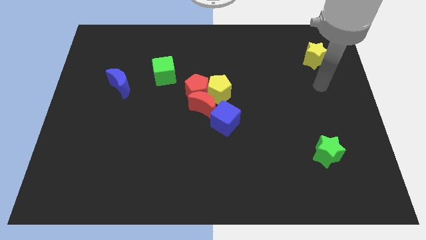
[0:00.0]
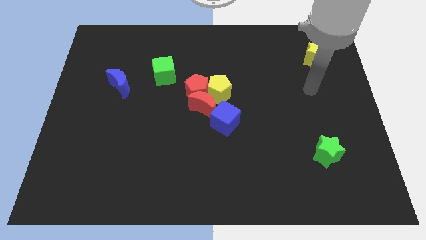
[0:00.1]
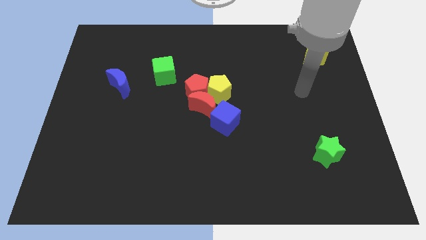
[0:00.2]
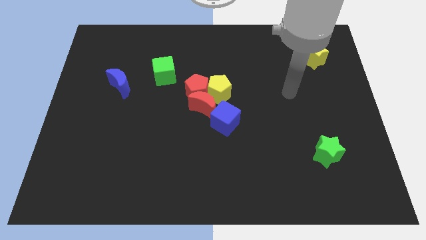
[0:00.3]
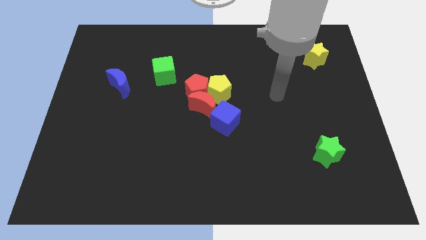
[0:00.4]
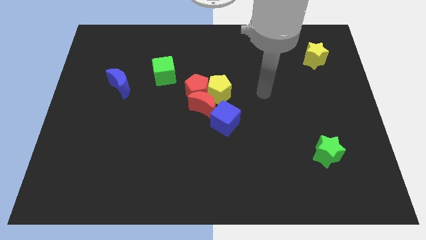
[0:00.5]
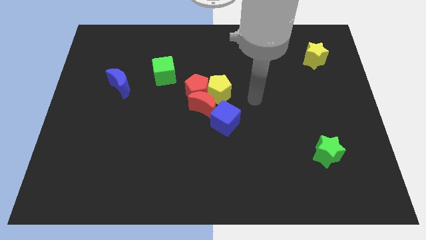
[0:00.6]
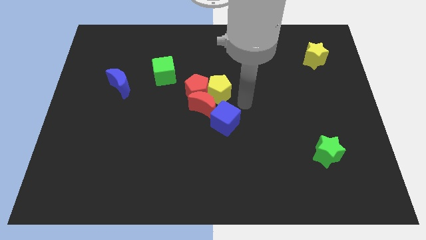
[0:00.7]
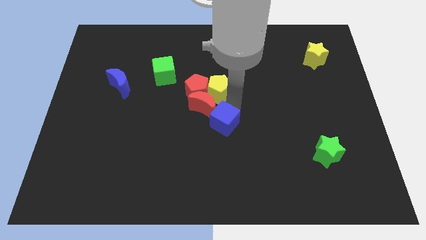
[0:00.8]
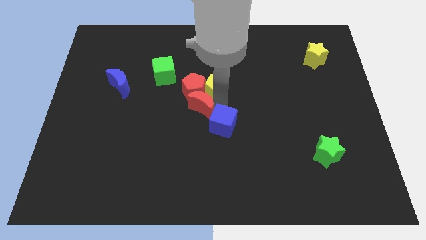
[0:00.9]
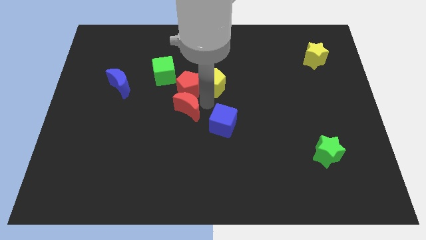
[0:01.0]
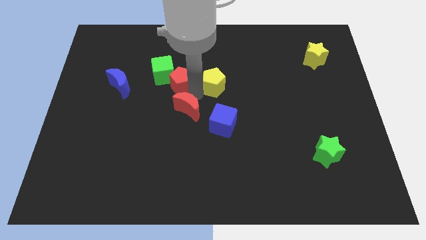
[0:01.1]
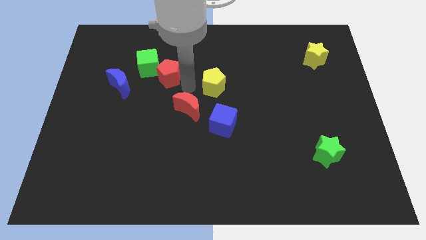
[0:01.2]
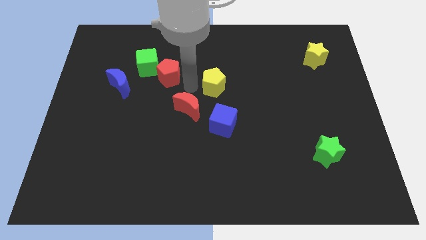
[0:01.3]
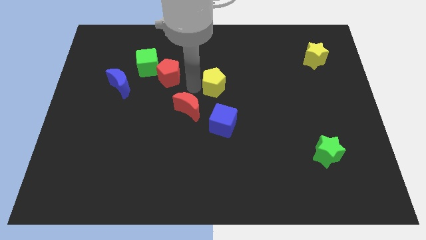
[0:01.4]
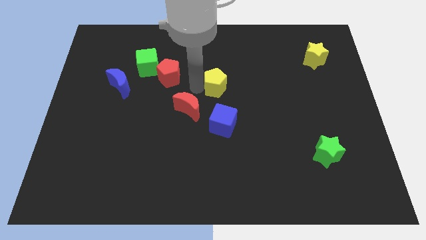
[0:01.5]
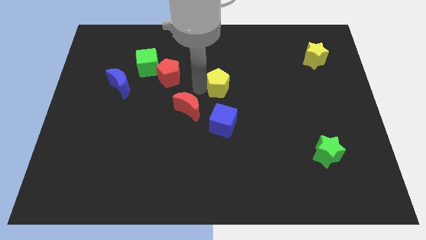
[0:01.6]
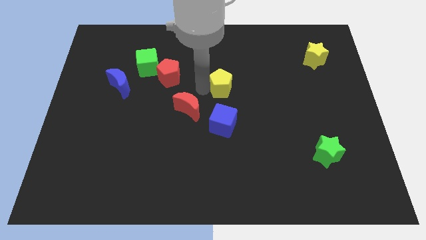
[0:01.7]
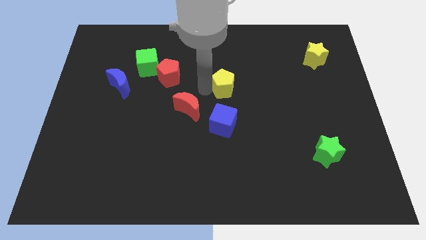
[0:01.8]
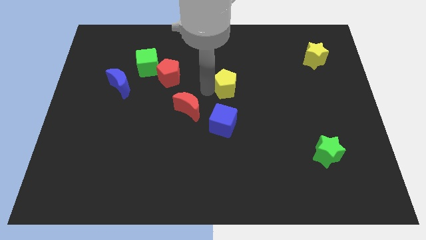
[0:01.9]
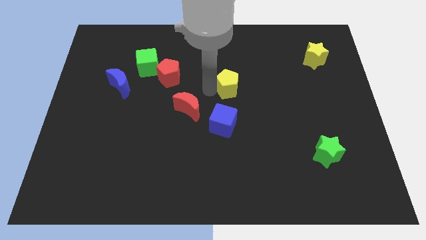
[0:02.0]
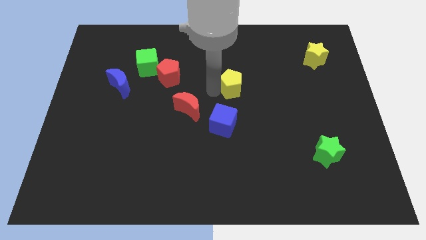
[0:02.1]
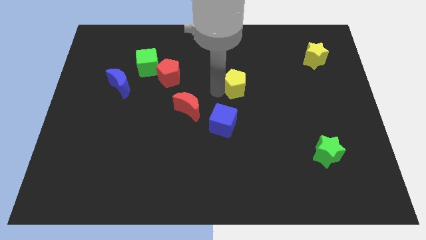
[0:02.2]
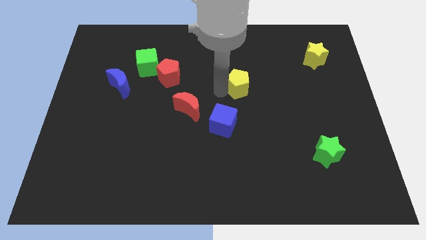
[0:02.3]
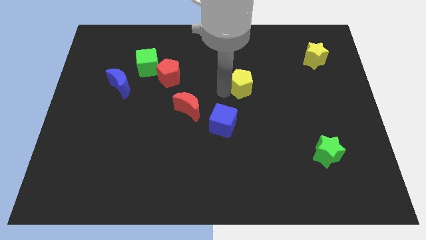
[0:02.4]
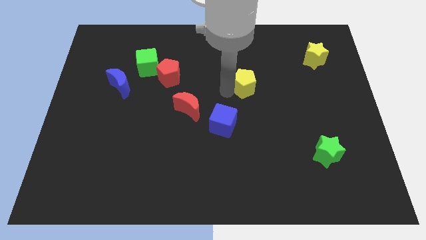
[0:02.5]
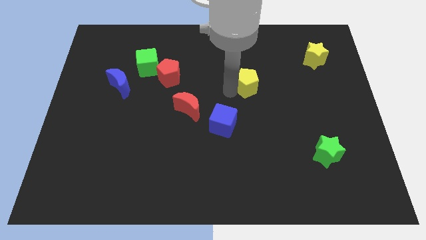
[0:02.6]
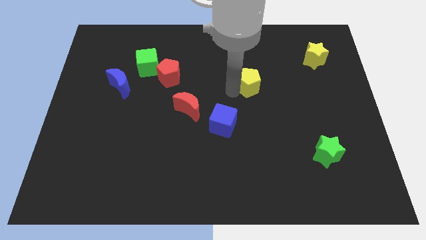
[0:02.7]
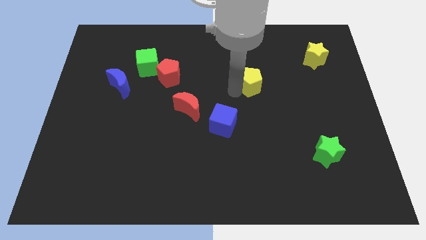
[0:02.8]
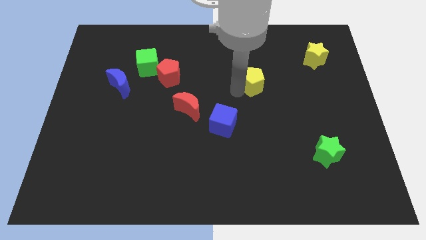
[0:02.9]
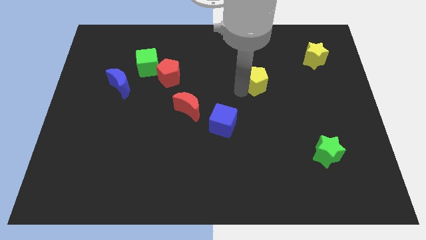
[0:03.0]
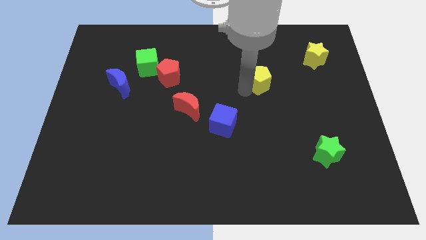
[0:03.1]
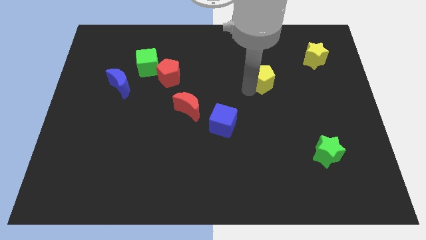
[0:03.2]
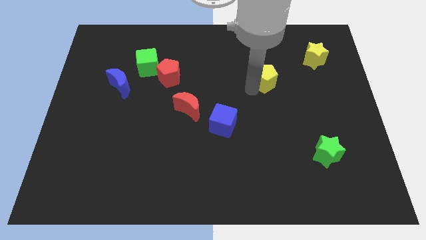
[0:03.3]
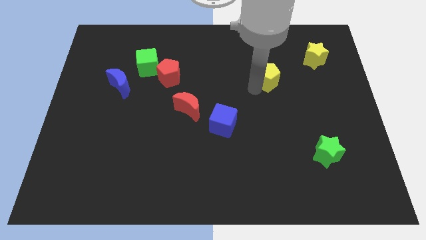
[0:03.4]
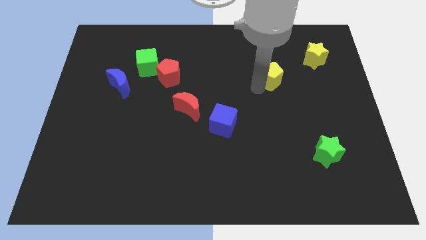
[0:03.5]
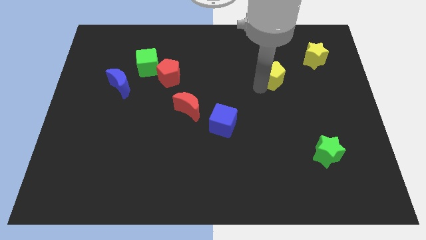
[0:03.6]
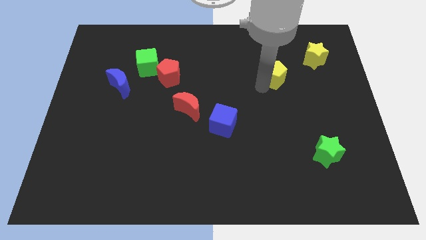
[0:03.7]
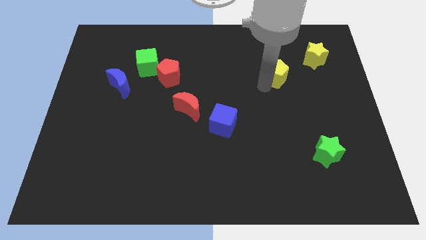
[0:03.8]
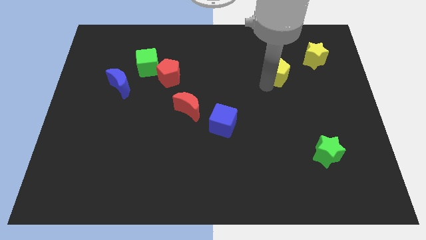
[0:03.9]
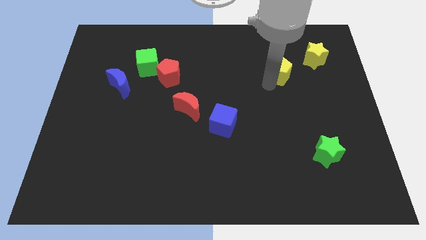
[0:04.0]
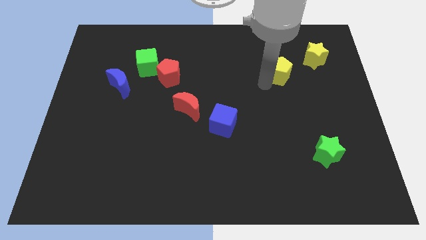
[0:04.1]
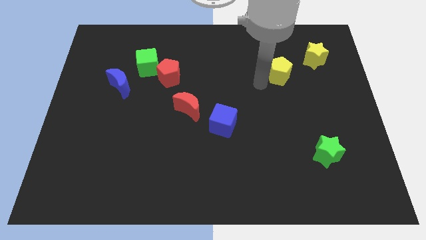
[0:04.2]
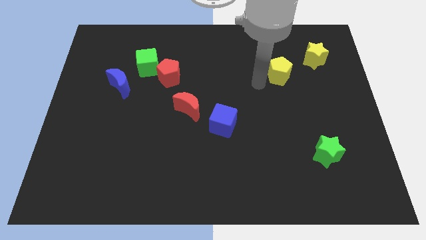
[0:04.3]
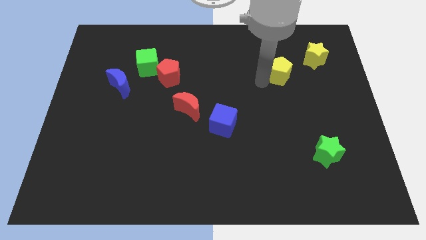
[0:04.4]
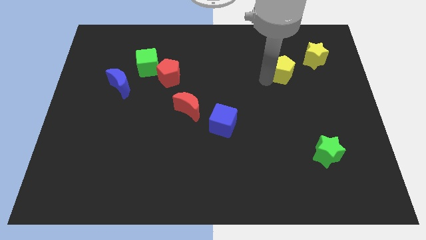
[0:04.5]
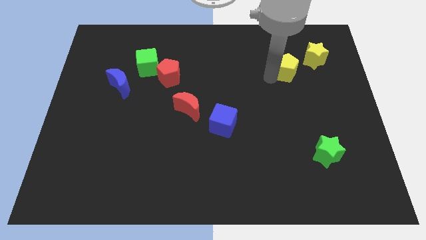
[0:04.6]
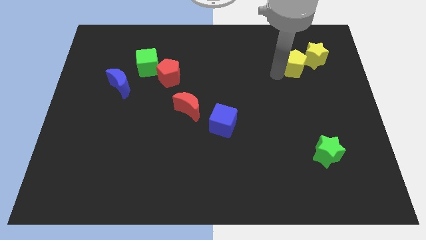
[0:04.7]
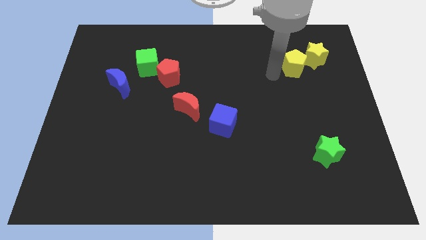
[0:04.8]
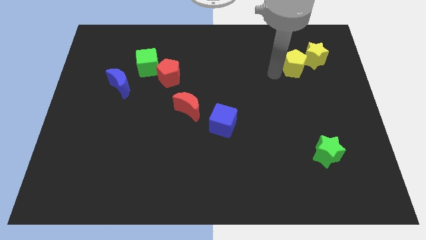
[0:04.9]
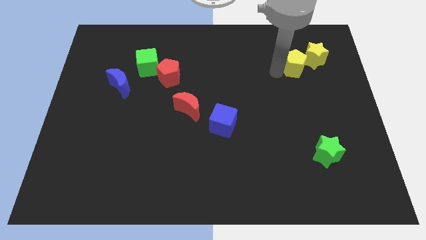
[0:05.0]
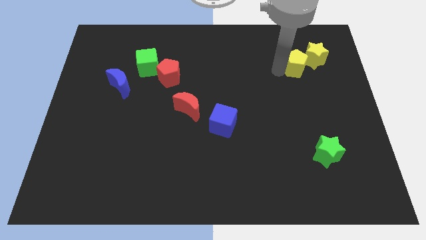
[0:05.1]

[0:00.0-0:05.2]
slide the yellow pentagon next to the yellow star

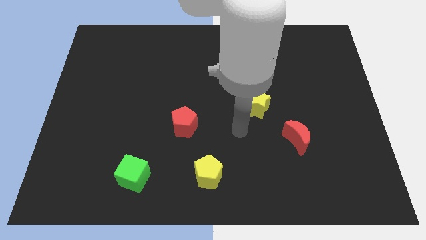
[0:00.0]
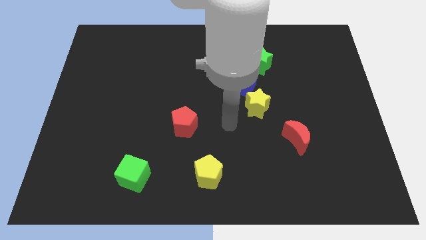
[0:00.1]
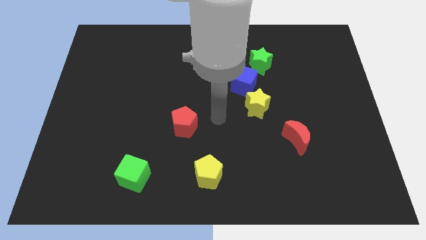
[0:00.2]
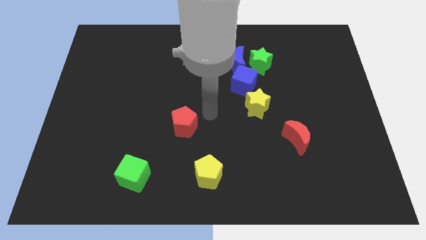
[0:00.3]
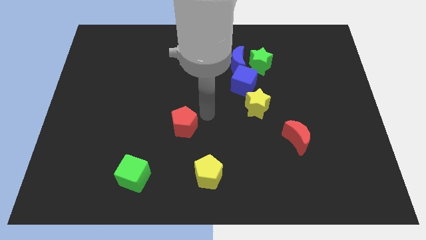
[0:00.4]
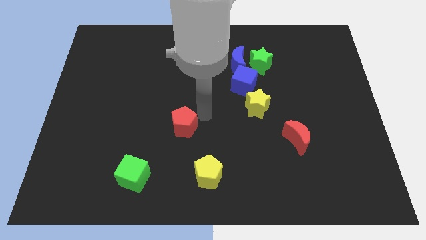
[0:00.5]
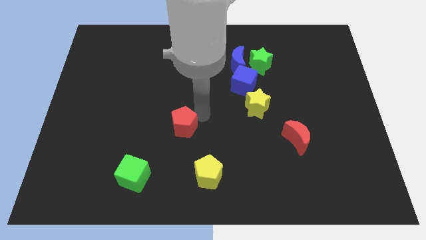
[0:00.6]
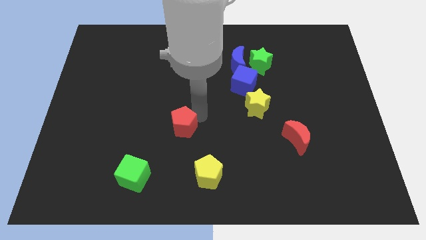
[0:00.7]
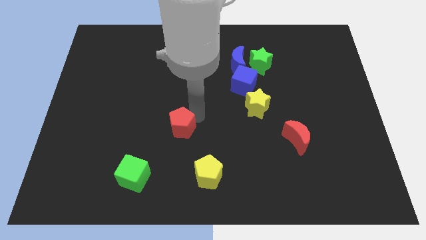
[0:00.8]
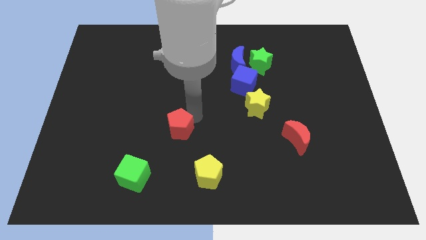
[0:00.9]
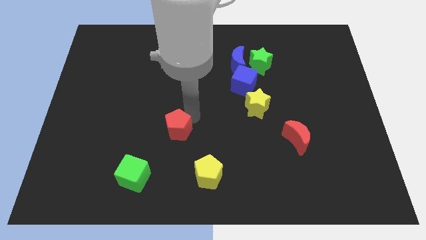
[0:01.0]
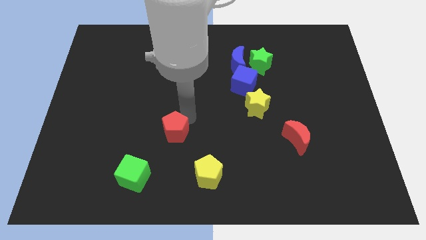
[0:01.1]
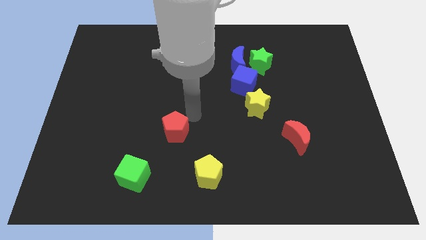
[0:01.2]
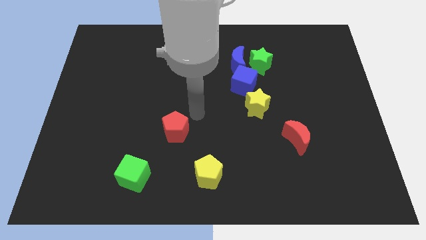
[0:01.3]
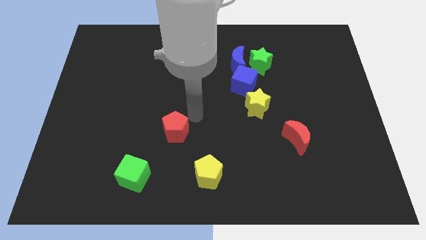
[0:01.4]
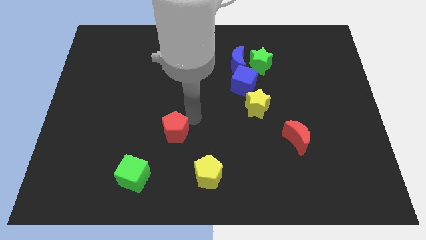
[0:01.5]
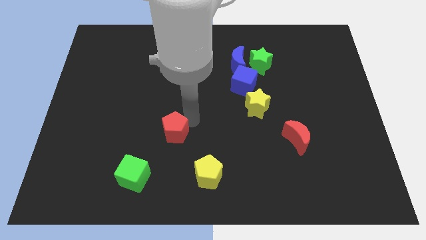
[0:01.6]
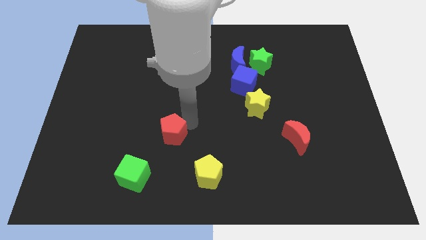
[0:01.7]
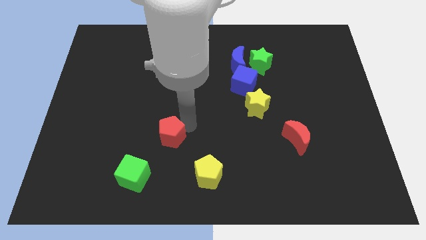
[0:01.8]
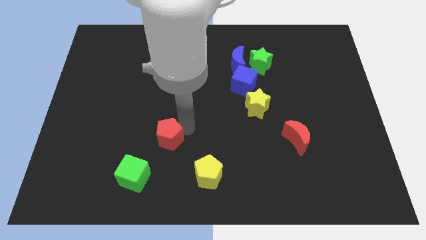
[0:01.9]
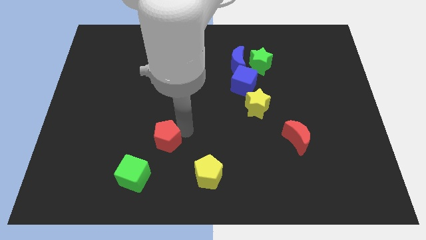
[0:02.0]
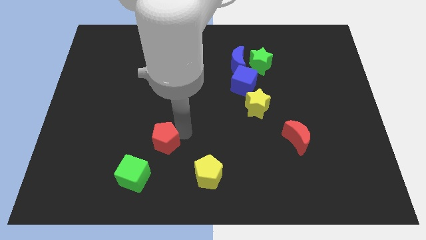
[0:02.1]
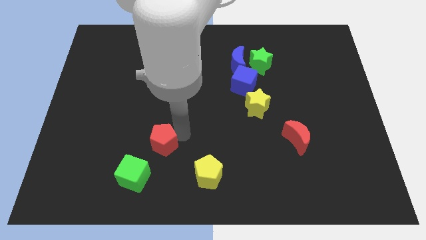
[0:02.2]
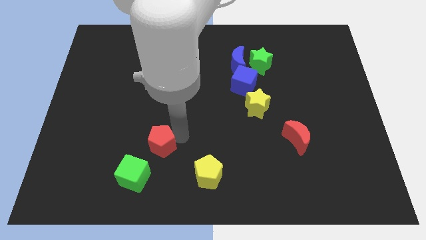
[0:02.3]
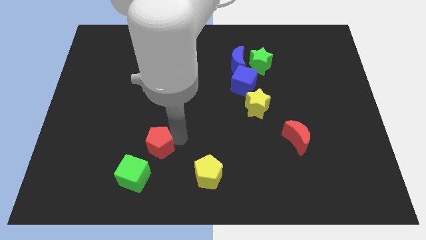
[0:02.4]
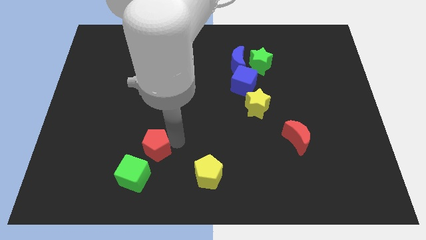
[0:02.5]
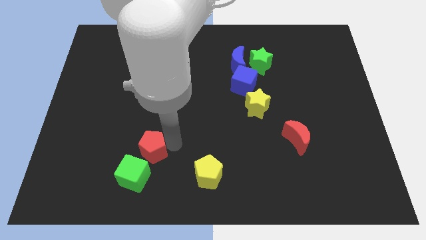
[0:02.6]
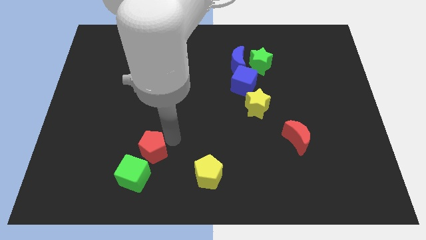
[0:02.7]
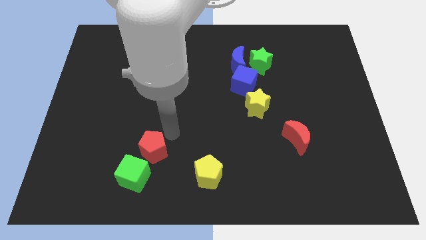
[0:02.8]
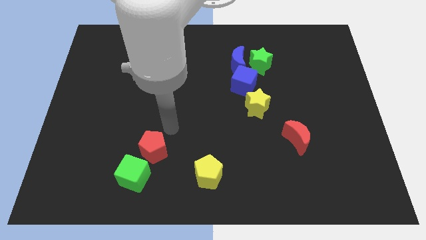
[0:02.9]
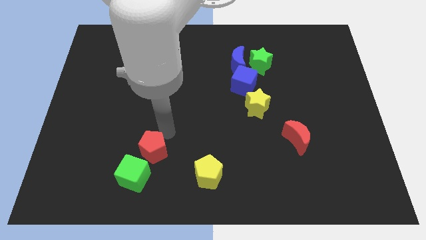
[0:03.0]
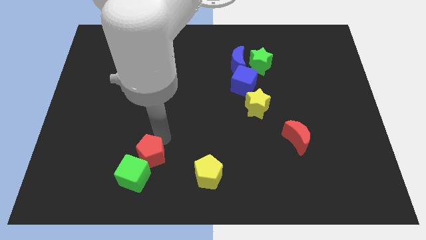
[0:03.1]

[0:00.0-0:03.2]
put the red pentagon close to the green cube
